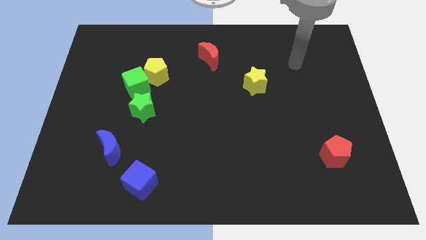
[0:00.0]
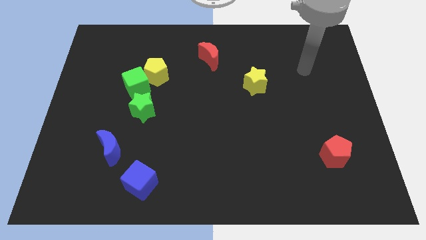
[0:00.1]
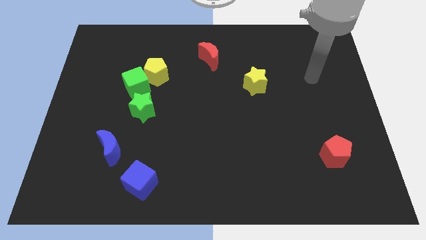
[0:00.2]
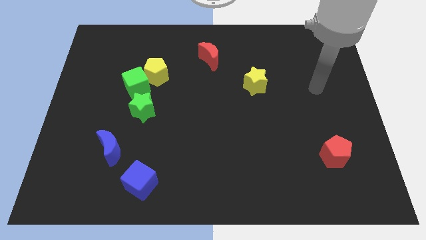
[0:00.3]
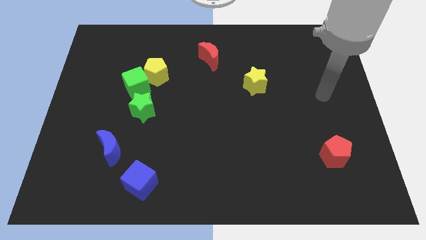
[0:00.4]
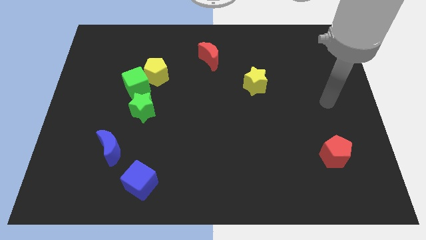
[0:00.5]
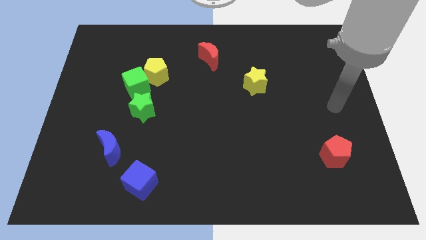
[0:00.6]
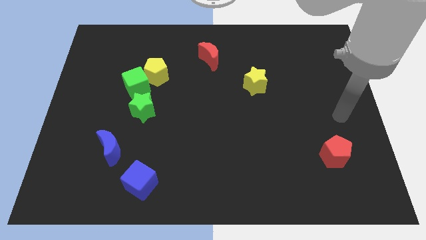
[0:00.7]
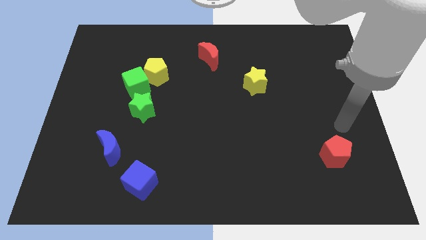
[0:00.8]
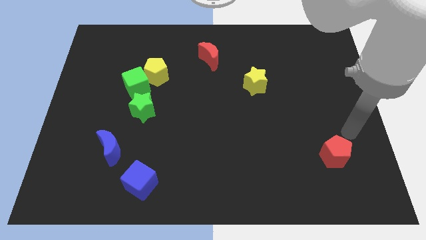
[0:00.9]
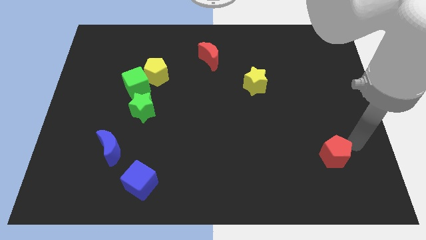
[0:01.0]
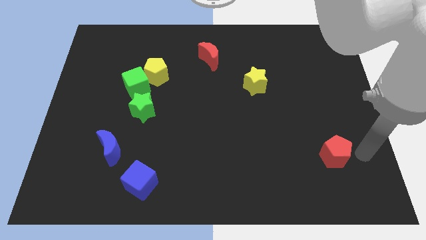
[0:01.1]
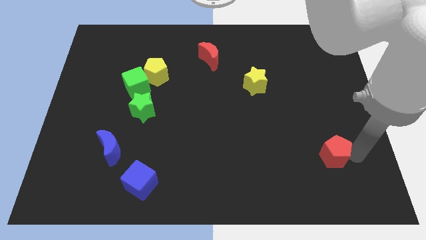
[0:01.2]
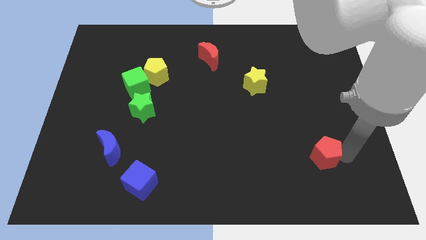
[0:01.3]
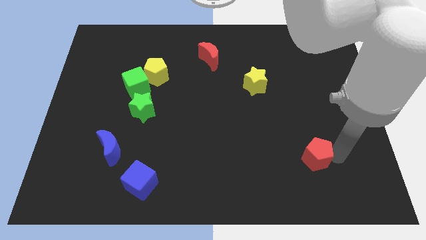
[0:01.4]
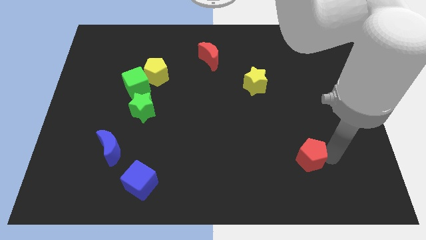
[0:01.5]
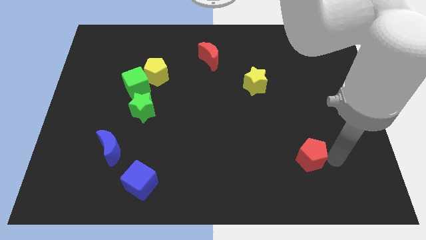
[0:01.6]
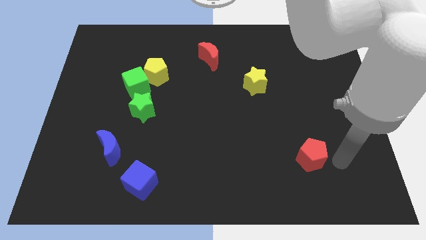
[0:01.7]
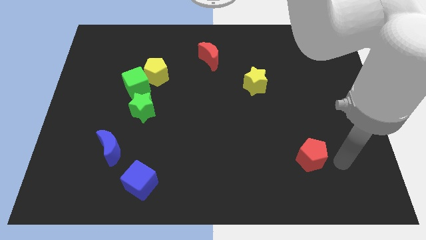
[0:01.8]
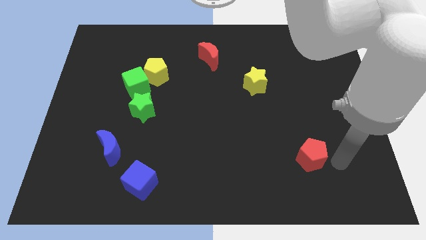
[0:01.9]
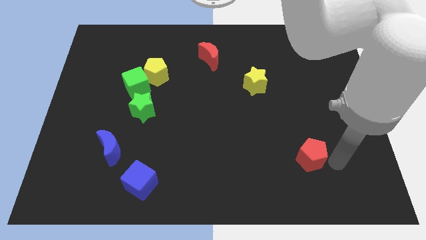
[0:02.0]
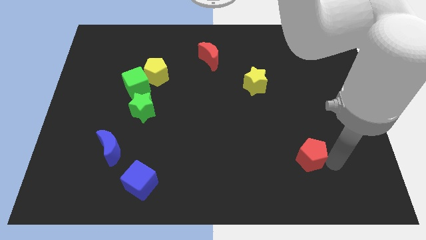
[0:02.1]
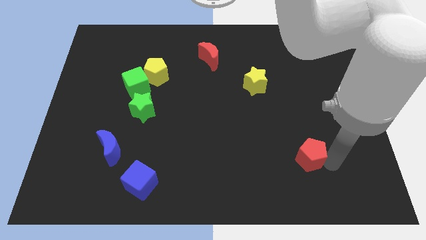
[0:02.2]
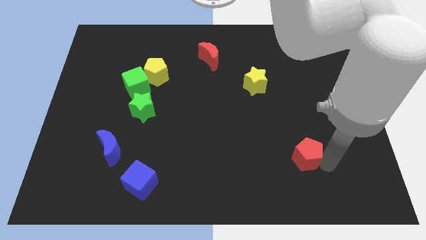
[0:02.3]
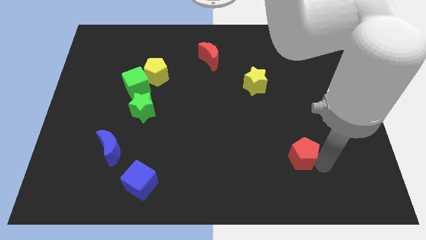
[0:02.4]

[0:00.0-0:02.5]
slightly slide the red pentagon left

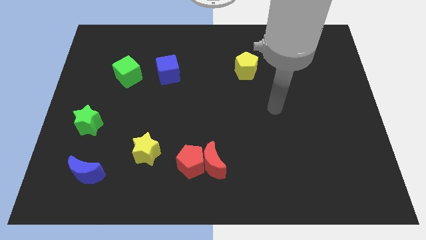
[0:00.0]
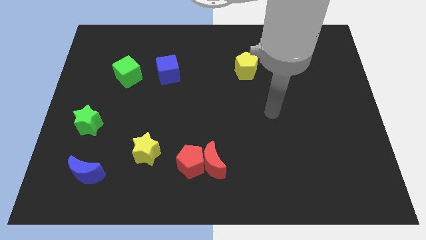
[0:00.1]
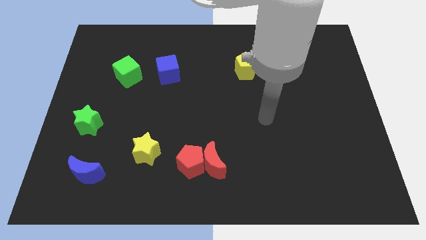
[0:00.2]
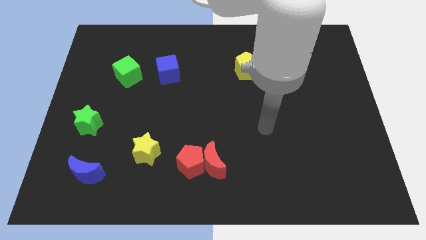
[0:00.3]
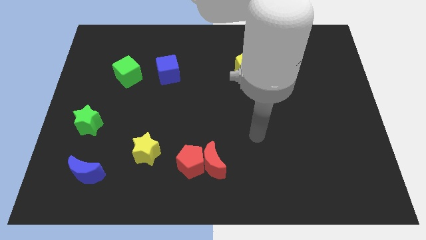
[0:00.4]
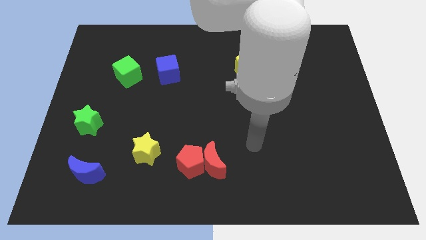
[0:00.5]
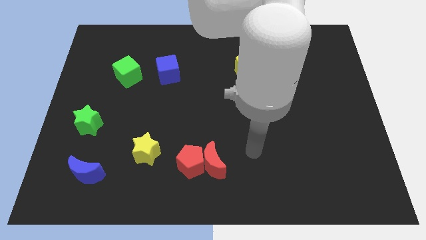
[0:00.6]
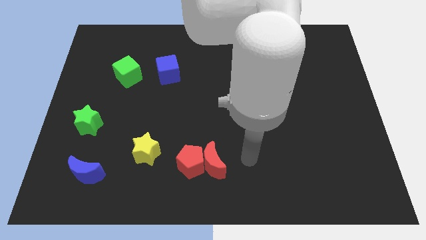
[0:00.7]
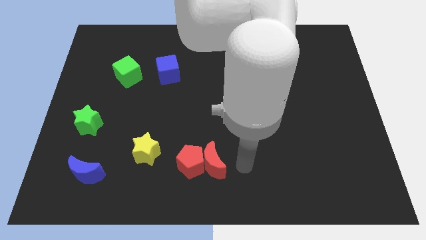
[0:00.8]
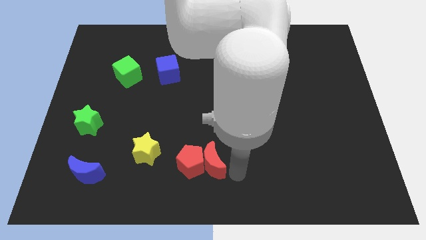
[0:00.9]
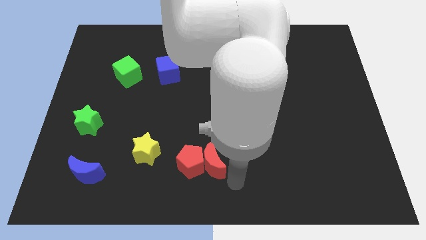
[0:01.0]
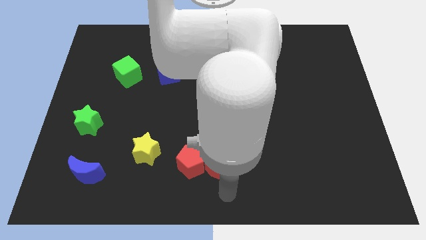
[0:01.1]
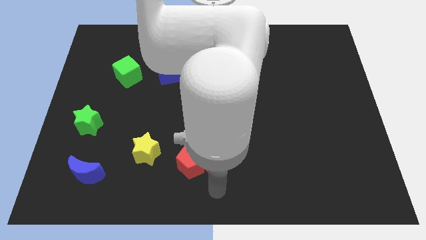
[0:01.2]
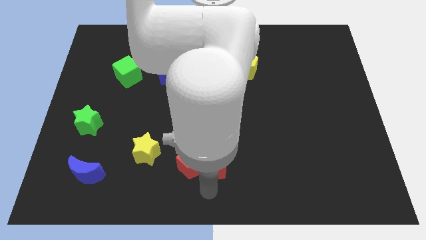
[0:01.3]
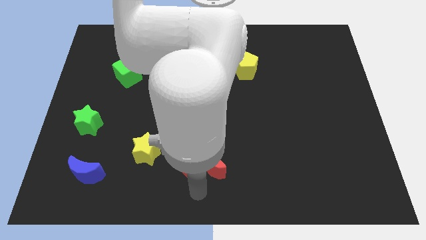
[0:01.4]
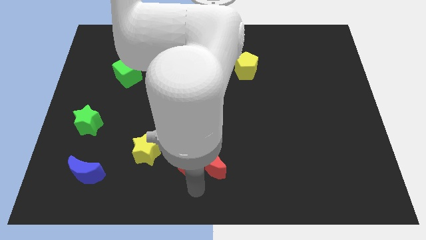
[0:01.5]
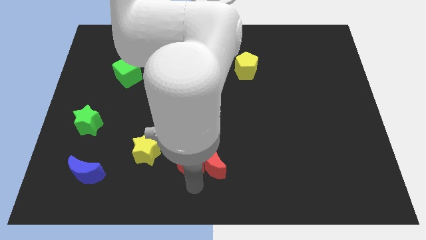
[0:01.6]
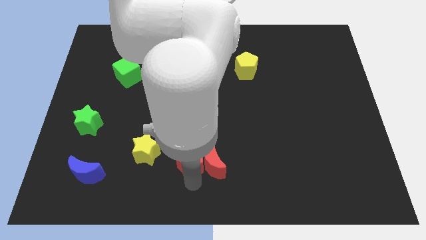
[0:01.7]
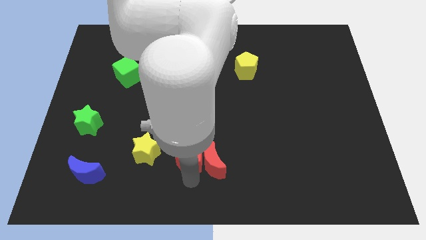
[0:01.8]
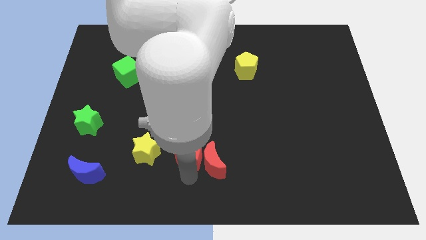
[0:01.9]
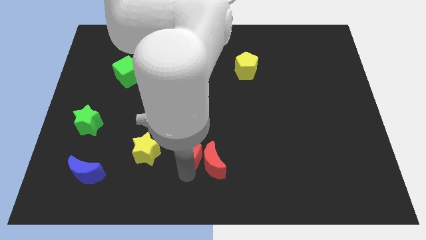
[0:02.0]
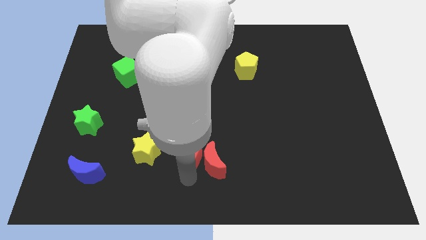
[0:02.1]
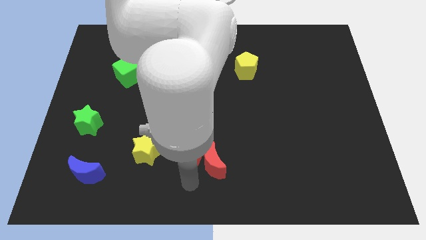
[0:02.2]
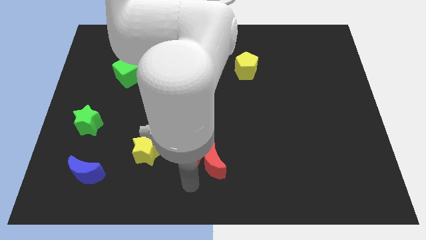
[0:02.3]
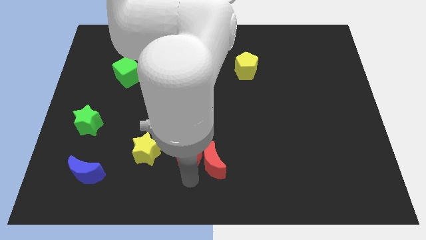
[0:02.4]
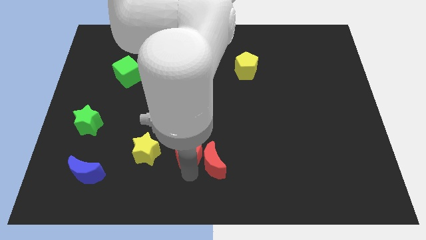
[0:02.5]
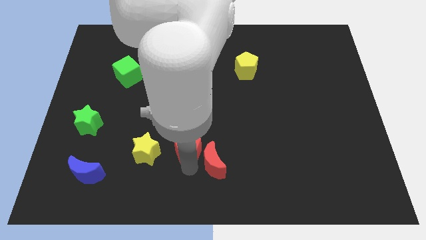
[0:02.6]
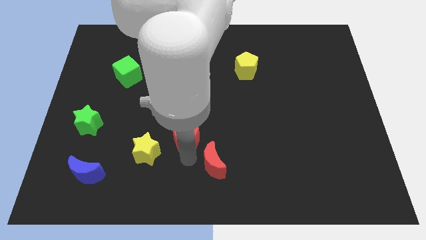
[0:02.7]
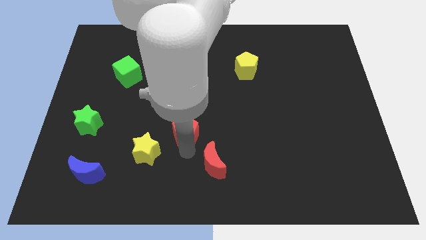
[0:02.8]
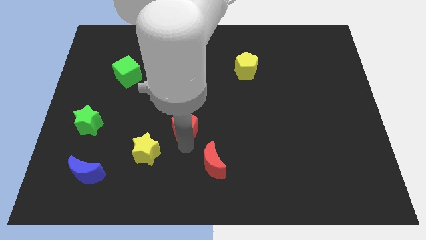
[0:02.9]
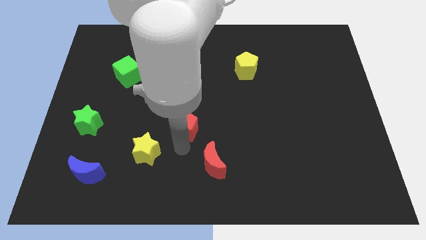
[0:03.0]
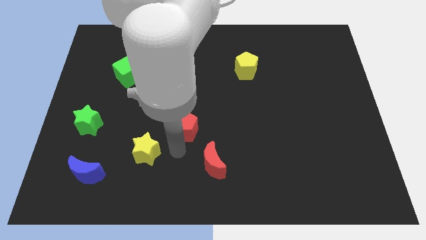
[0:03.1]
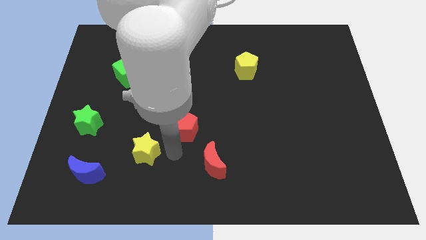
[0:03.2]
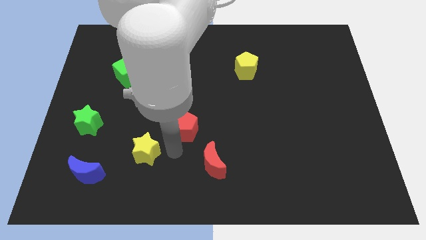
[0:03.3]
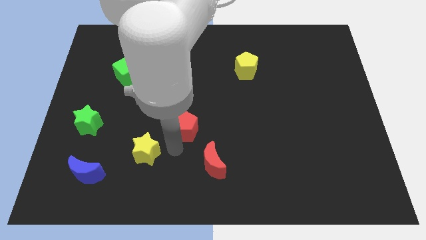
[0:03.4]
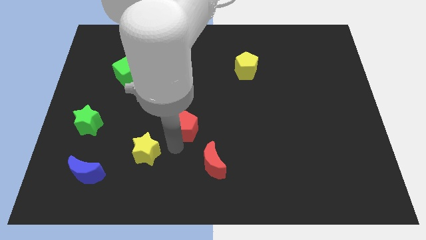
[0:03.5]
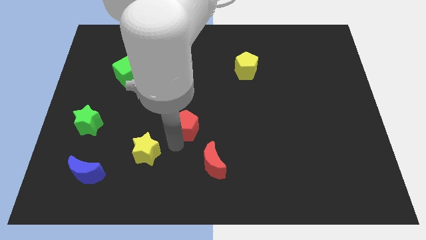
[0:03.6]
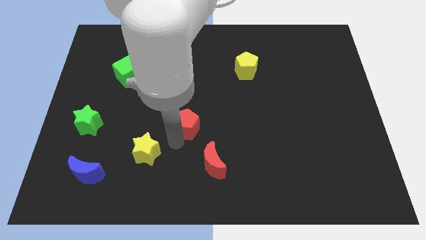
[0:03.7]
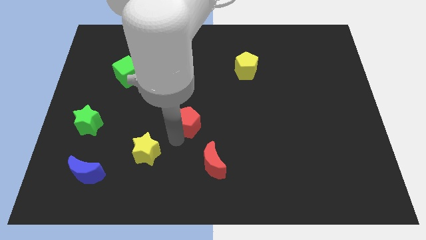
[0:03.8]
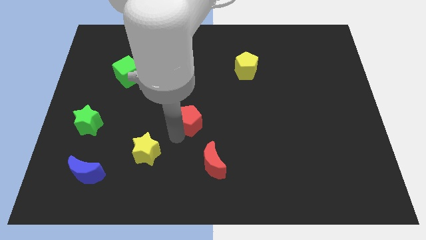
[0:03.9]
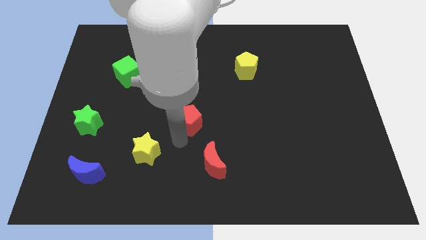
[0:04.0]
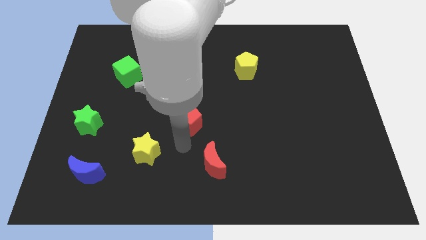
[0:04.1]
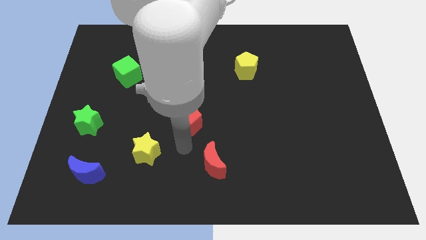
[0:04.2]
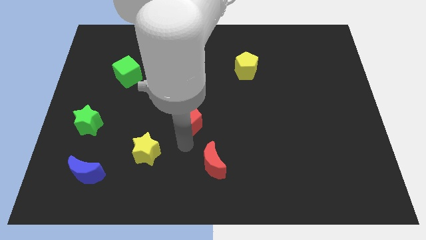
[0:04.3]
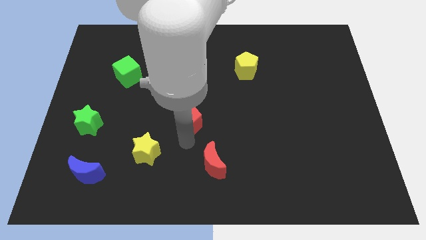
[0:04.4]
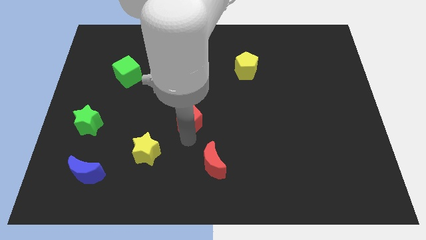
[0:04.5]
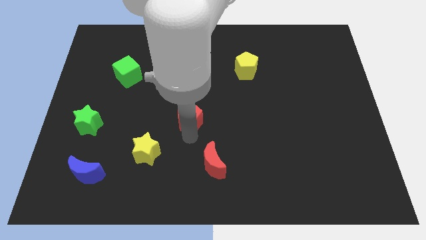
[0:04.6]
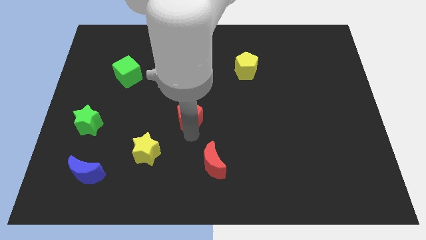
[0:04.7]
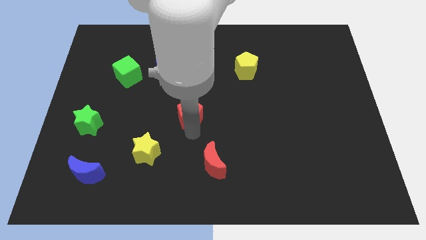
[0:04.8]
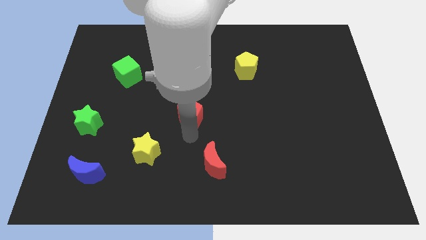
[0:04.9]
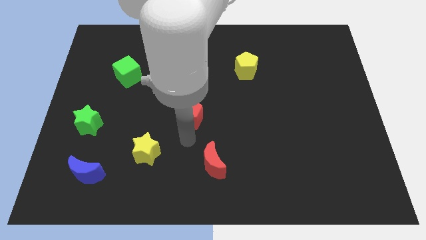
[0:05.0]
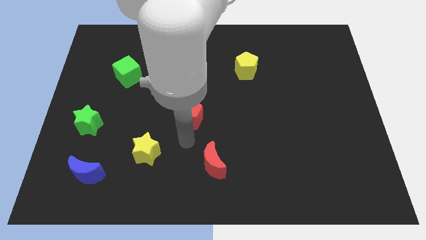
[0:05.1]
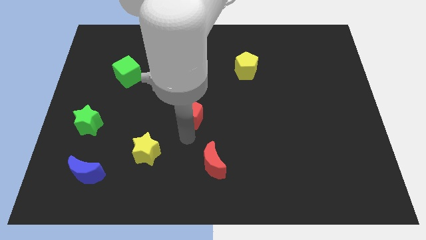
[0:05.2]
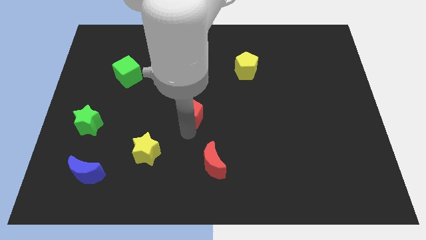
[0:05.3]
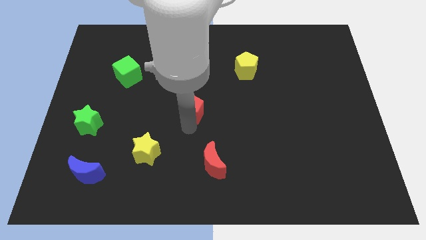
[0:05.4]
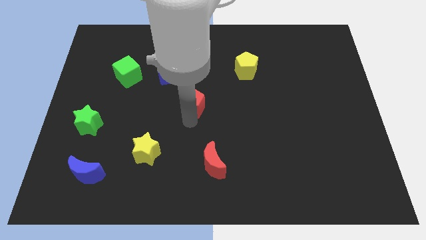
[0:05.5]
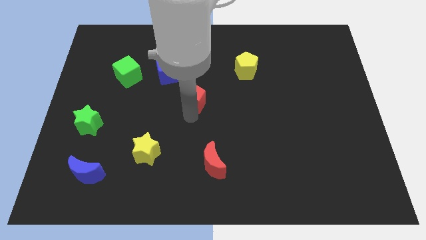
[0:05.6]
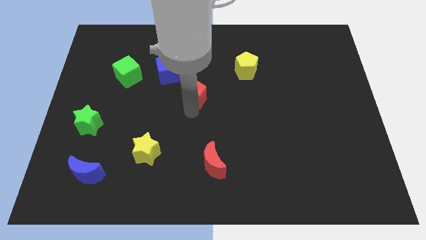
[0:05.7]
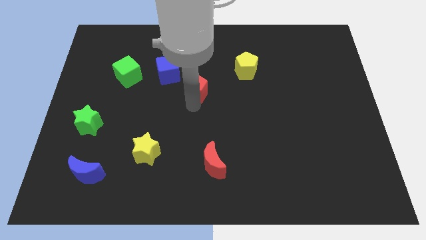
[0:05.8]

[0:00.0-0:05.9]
slide the red pentagon upwards
